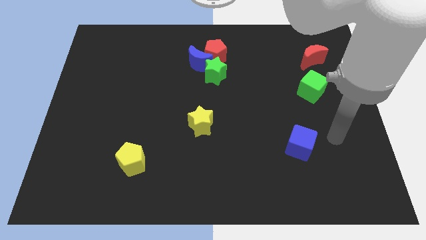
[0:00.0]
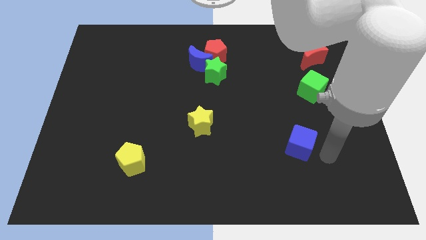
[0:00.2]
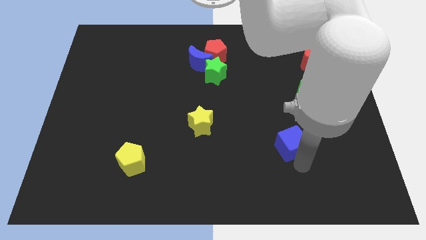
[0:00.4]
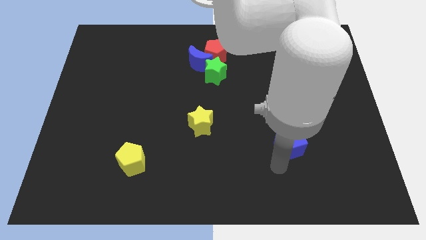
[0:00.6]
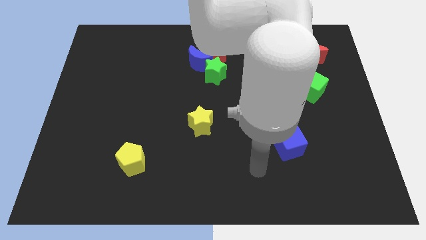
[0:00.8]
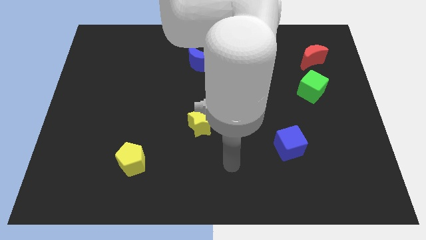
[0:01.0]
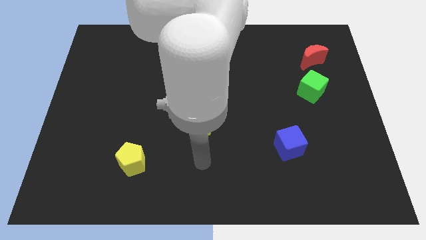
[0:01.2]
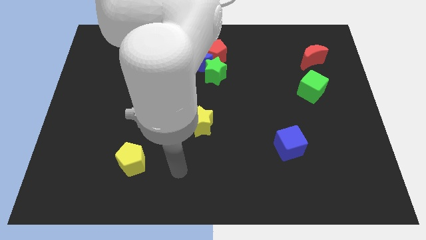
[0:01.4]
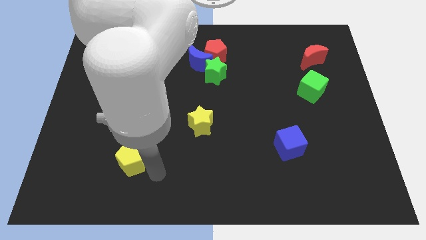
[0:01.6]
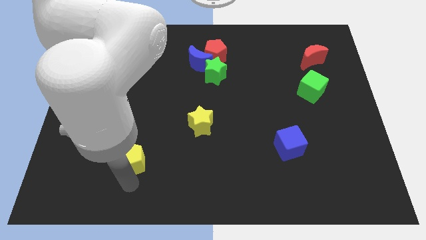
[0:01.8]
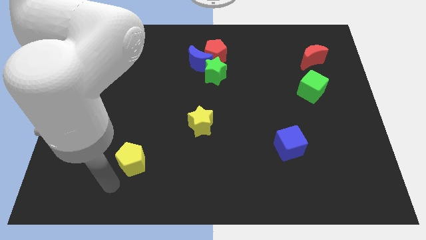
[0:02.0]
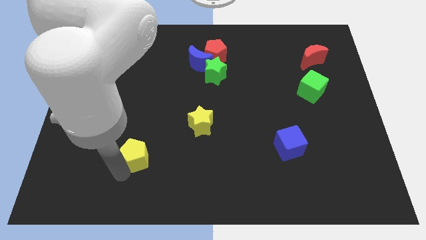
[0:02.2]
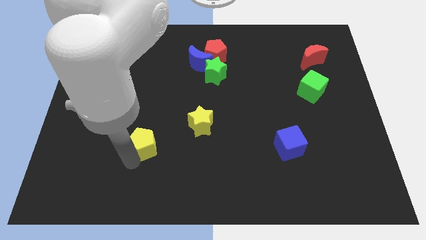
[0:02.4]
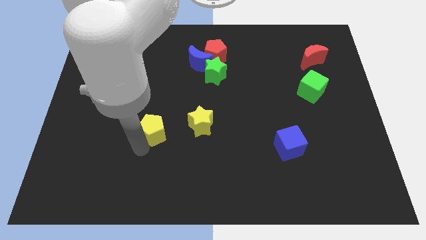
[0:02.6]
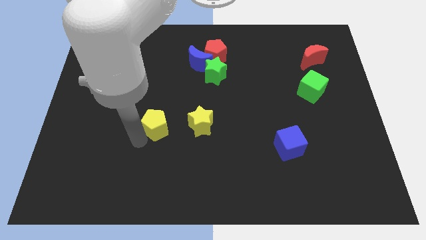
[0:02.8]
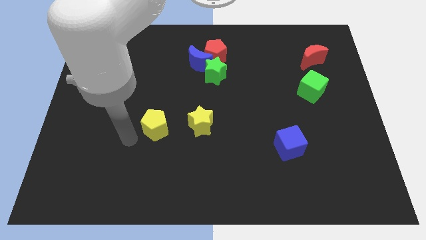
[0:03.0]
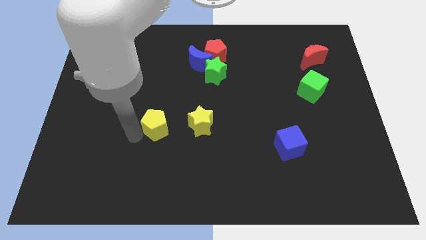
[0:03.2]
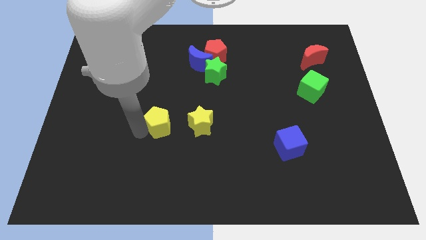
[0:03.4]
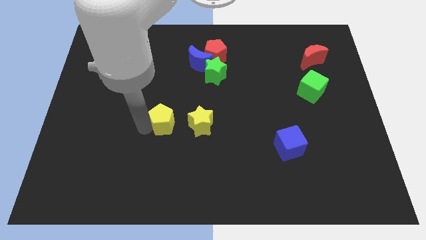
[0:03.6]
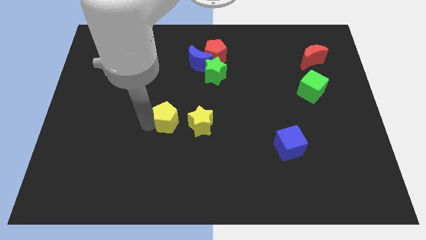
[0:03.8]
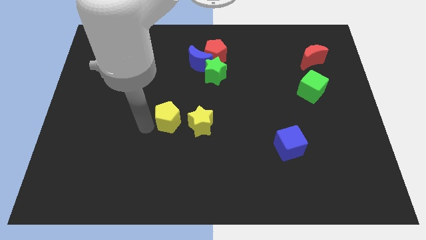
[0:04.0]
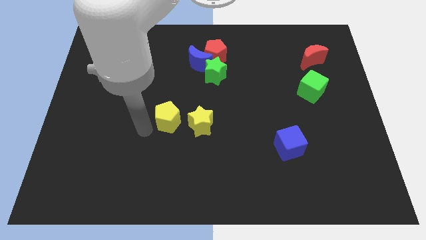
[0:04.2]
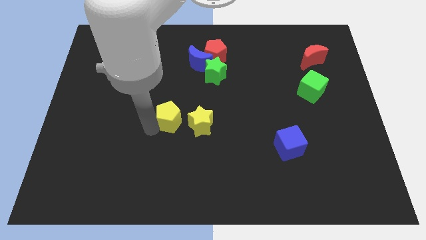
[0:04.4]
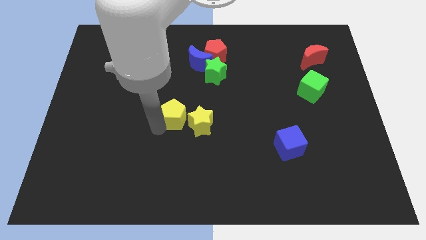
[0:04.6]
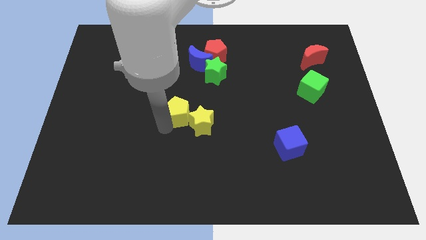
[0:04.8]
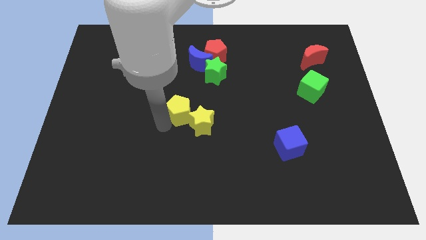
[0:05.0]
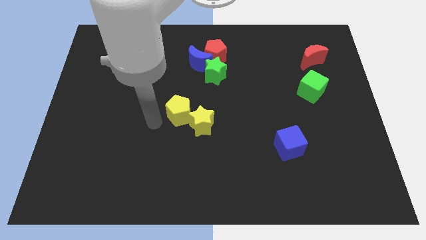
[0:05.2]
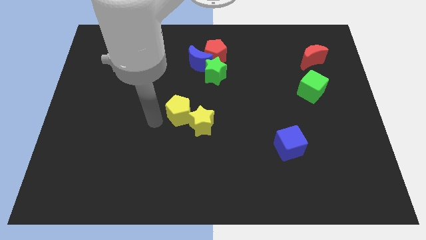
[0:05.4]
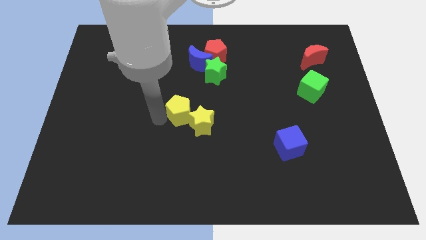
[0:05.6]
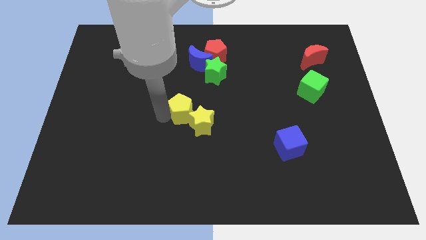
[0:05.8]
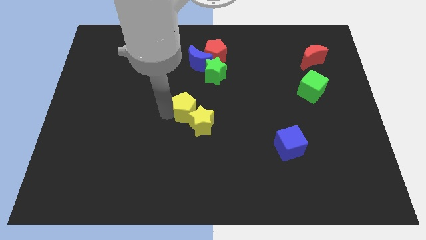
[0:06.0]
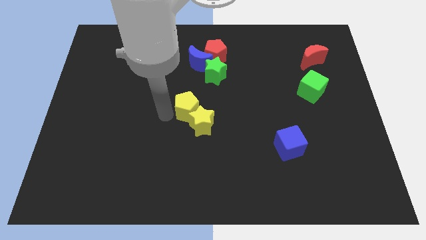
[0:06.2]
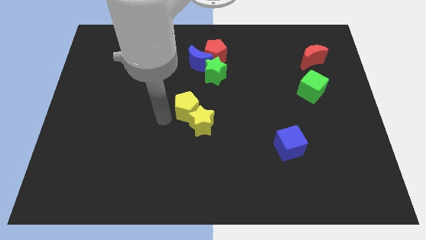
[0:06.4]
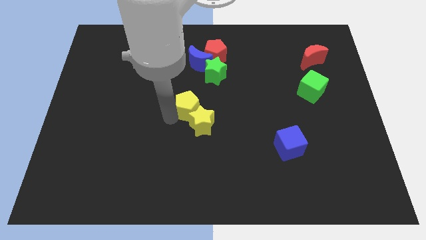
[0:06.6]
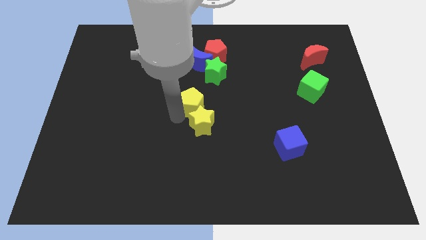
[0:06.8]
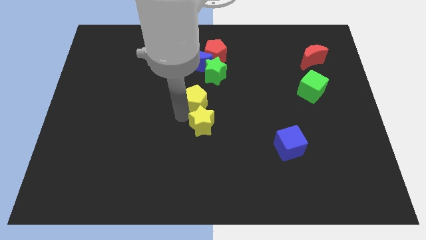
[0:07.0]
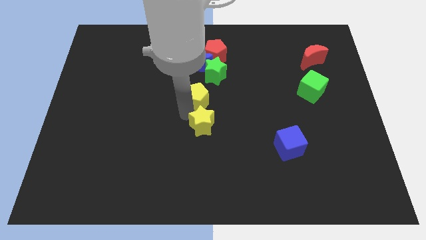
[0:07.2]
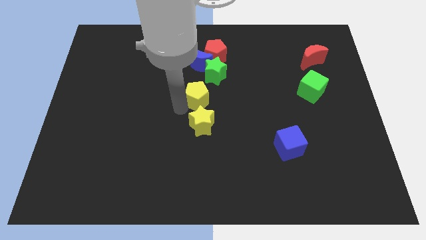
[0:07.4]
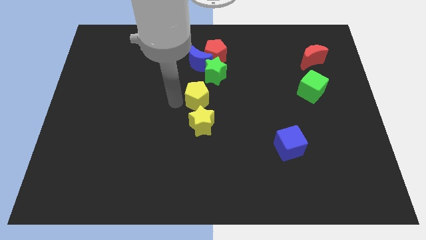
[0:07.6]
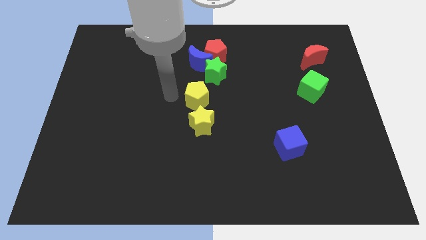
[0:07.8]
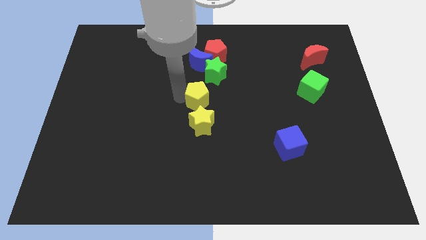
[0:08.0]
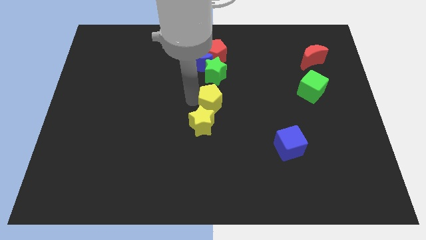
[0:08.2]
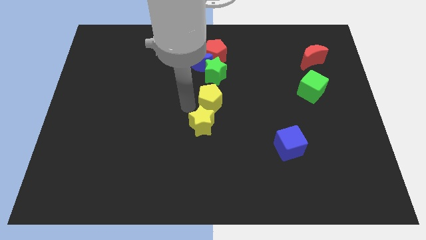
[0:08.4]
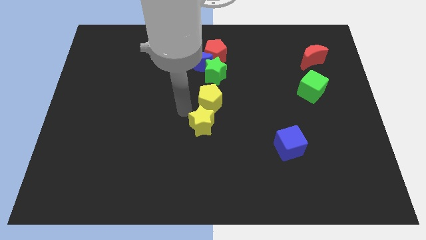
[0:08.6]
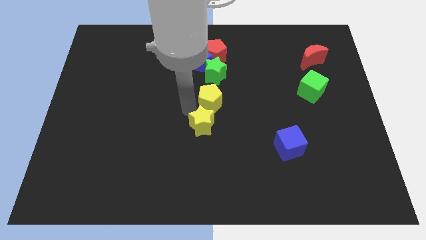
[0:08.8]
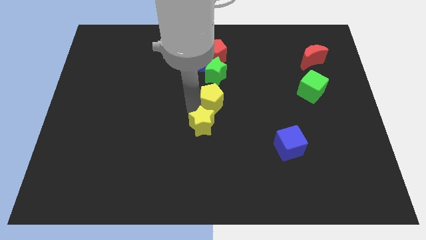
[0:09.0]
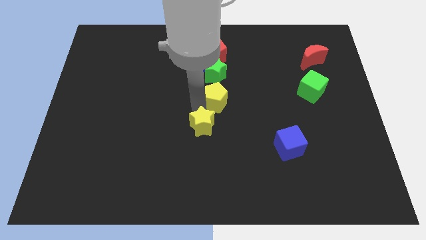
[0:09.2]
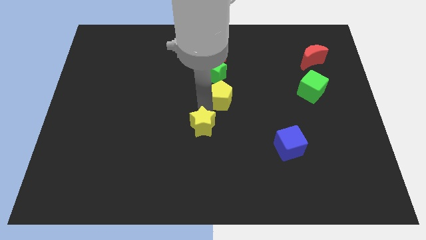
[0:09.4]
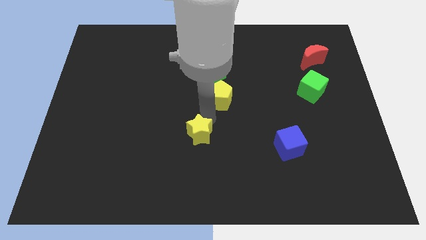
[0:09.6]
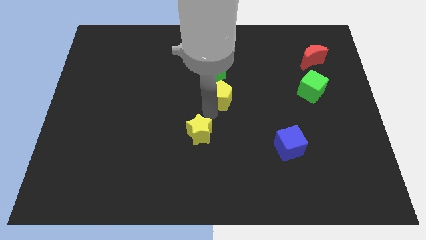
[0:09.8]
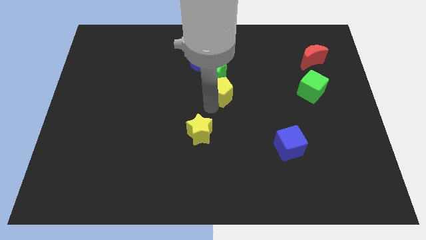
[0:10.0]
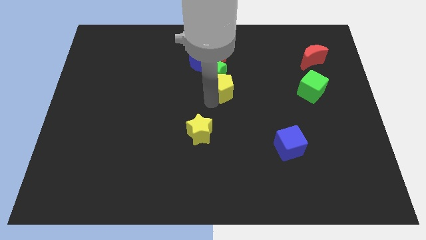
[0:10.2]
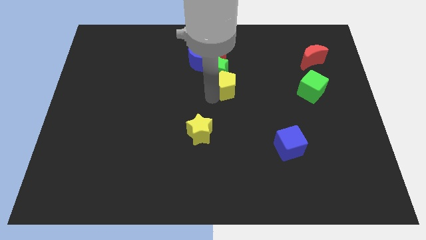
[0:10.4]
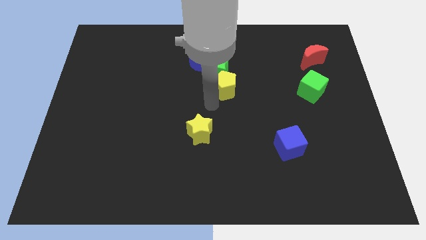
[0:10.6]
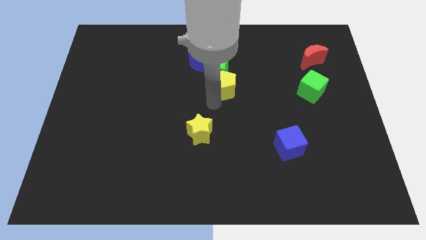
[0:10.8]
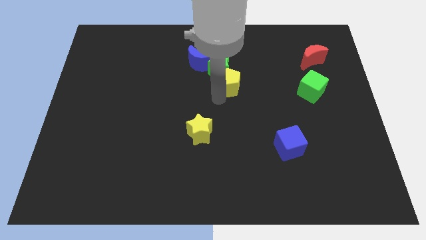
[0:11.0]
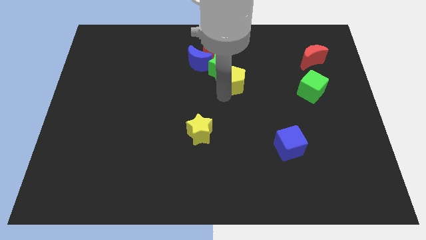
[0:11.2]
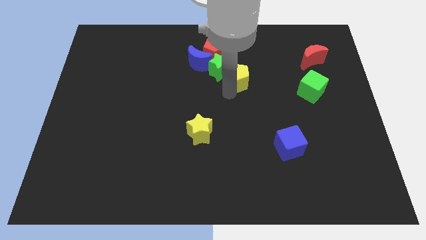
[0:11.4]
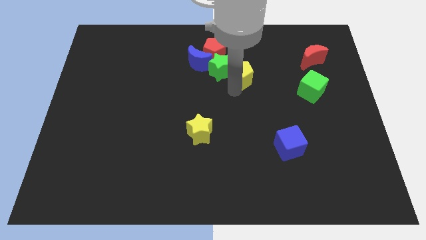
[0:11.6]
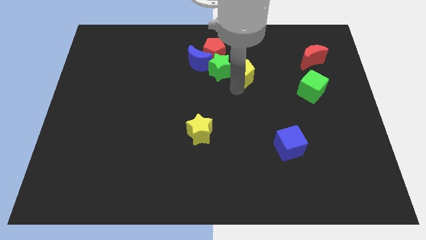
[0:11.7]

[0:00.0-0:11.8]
put the yellow pentagon to the right of the blue moon

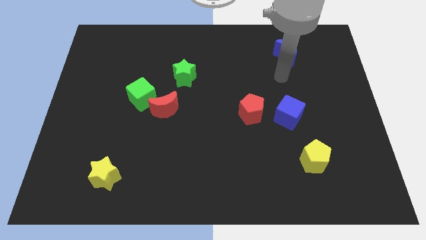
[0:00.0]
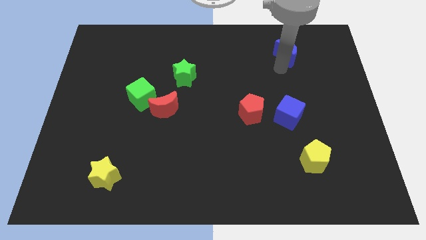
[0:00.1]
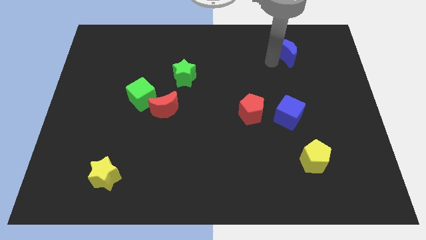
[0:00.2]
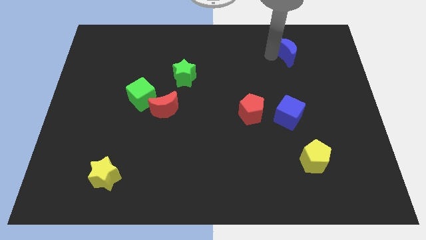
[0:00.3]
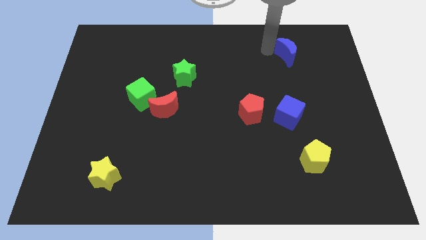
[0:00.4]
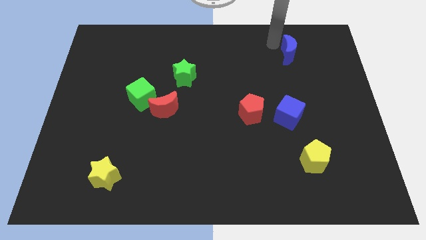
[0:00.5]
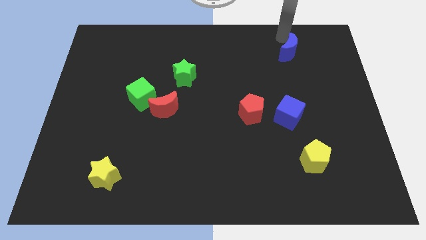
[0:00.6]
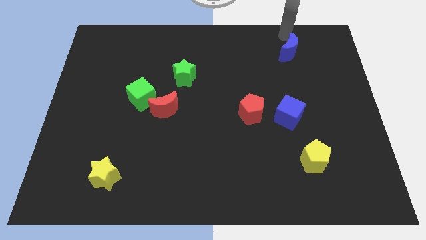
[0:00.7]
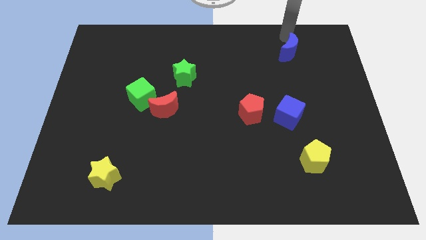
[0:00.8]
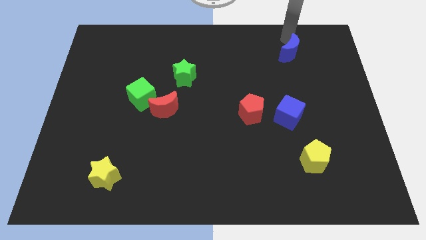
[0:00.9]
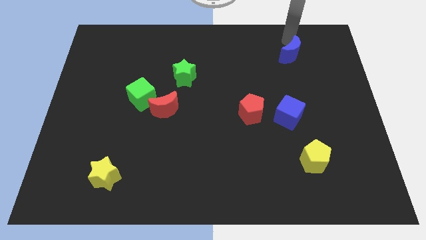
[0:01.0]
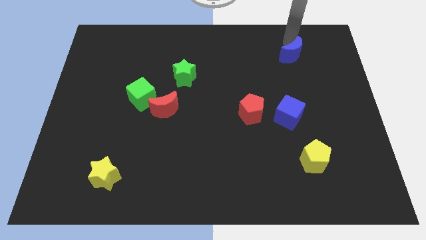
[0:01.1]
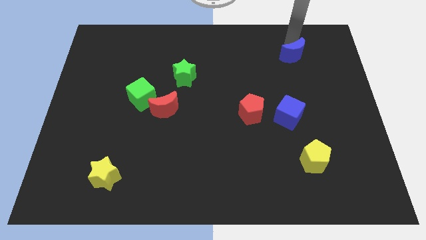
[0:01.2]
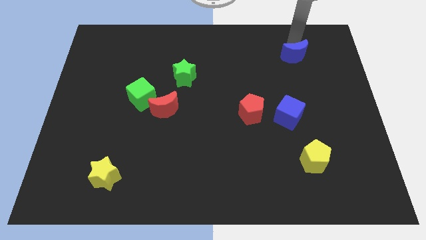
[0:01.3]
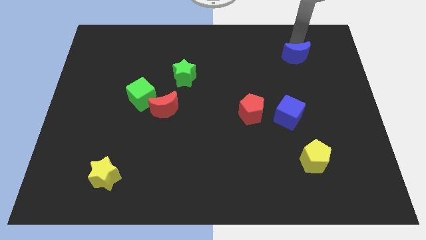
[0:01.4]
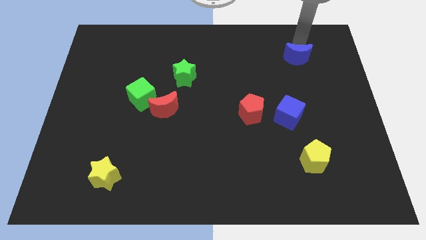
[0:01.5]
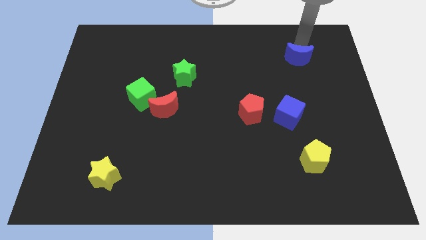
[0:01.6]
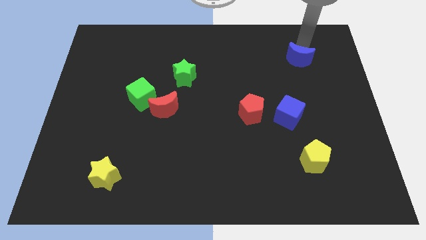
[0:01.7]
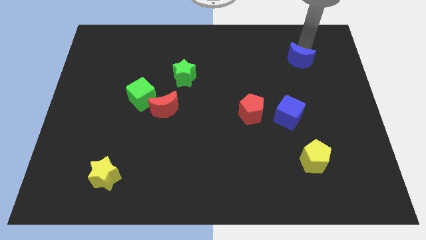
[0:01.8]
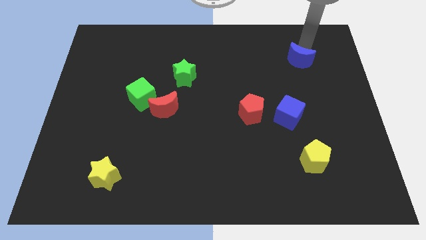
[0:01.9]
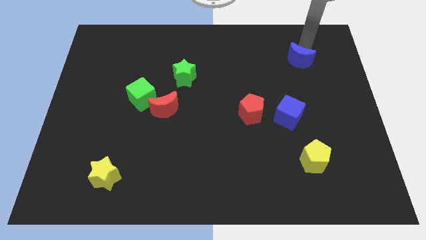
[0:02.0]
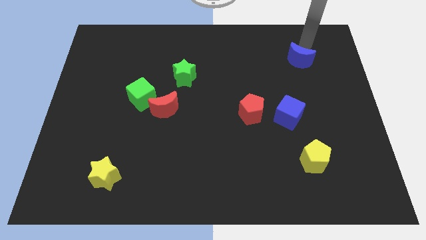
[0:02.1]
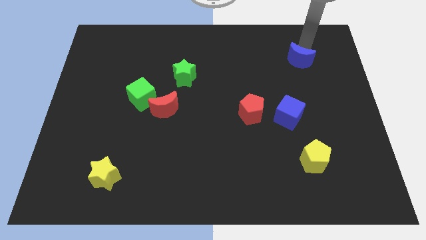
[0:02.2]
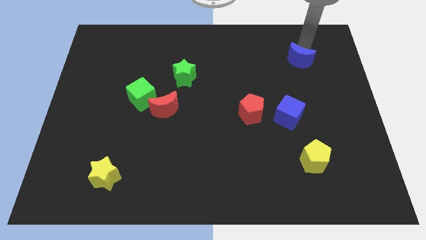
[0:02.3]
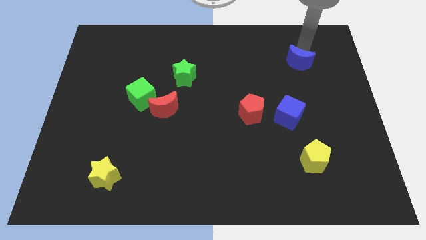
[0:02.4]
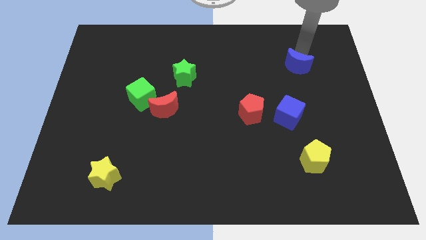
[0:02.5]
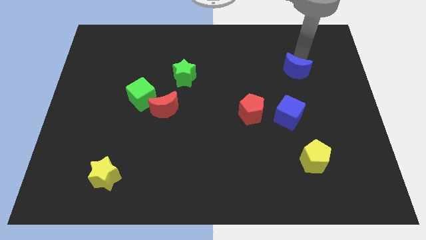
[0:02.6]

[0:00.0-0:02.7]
move the blue moon to the top side of the blue cube
